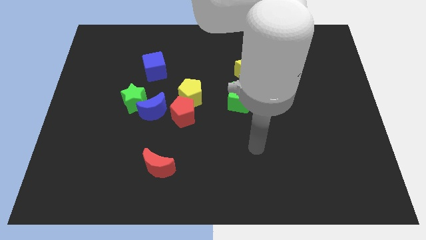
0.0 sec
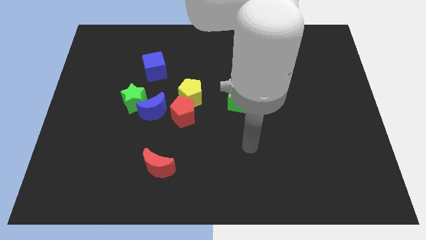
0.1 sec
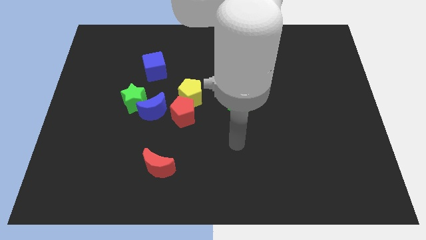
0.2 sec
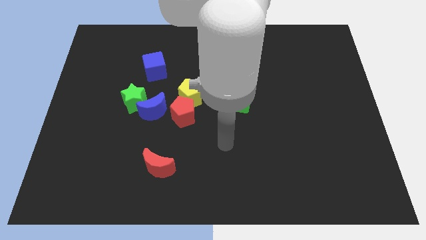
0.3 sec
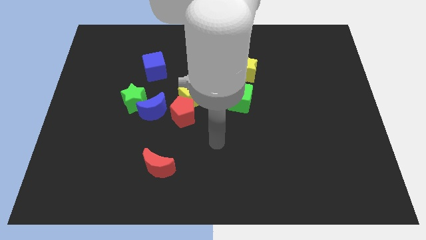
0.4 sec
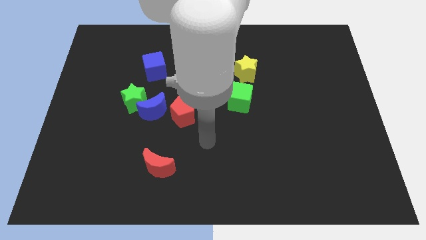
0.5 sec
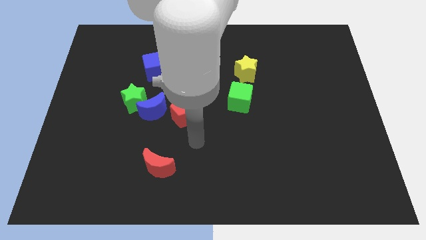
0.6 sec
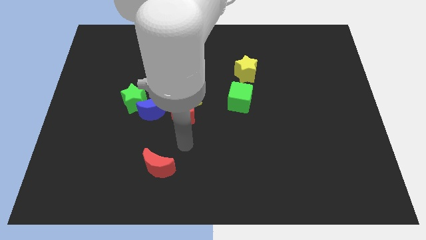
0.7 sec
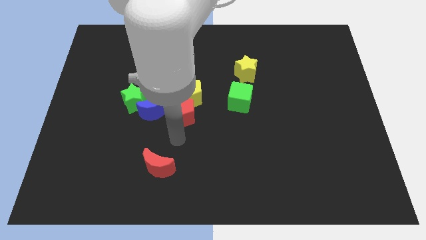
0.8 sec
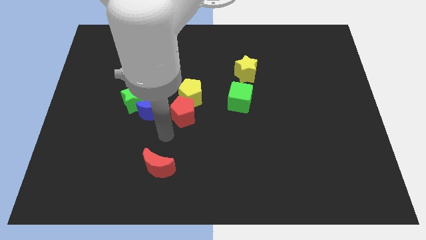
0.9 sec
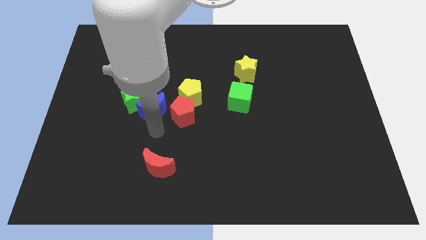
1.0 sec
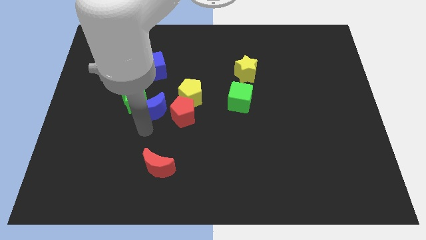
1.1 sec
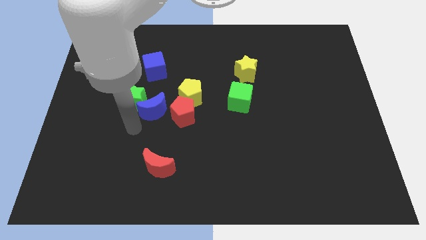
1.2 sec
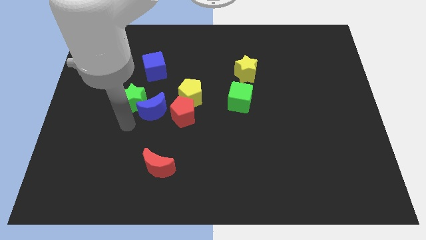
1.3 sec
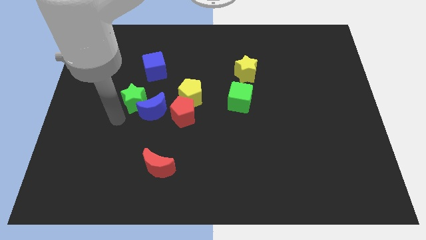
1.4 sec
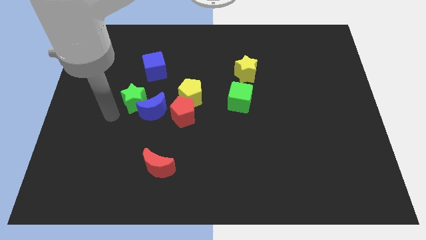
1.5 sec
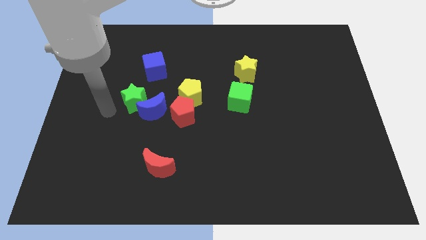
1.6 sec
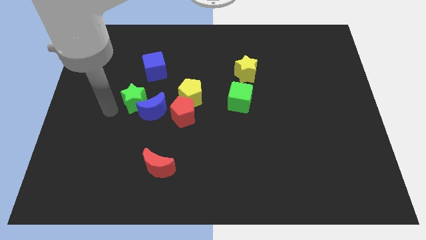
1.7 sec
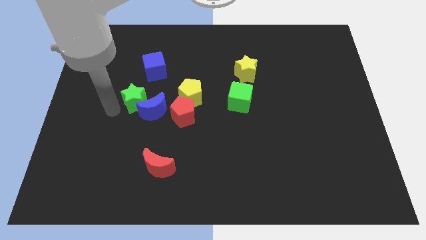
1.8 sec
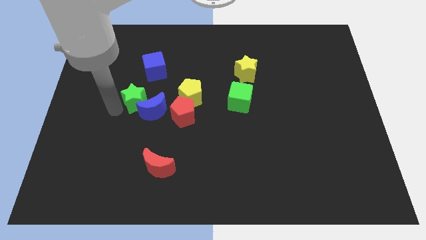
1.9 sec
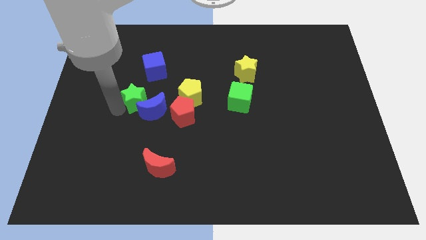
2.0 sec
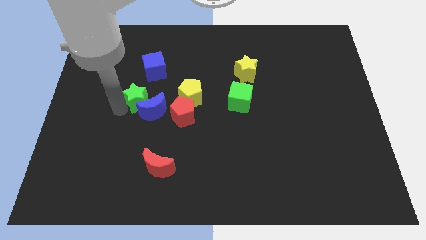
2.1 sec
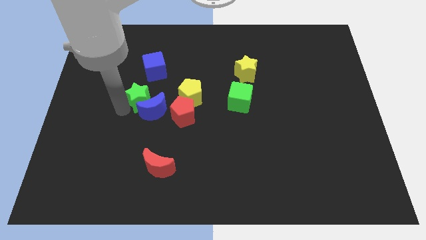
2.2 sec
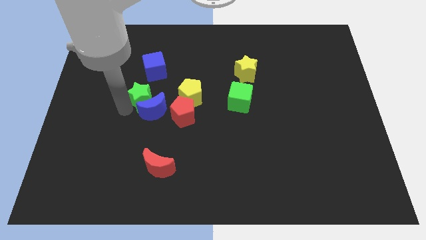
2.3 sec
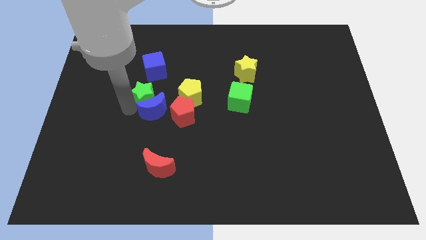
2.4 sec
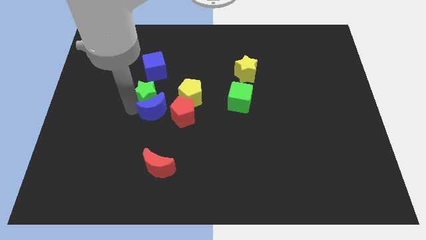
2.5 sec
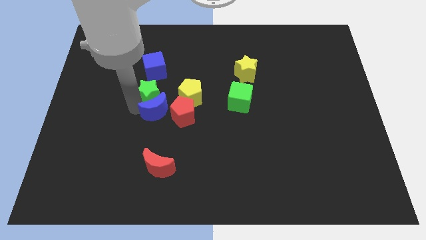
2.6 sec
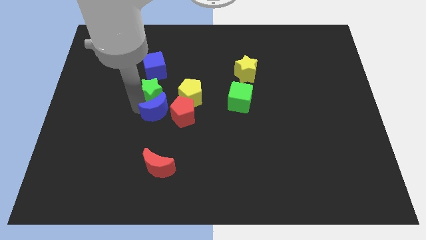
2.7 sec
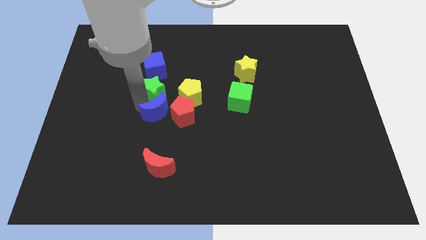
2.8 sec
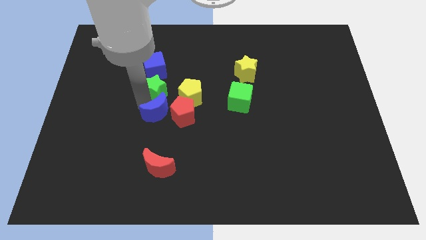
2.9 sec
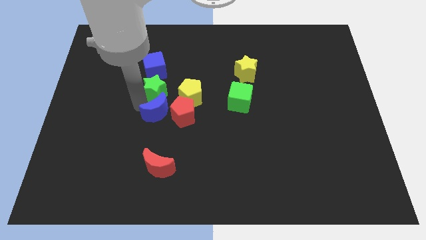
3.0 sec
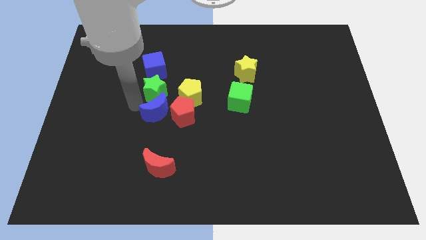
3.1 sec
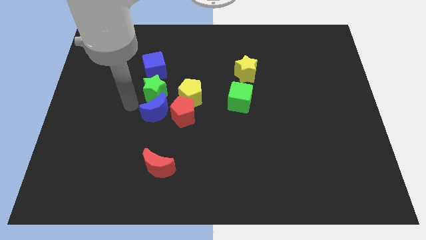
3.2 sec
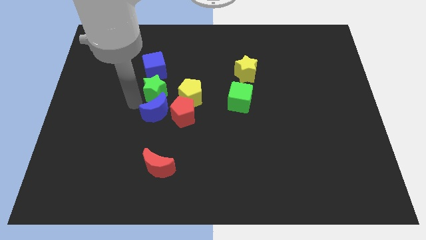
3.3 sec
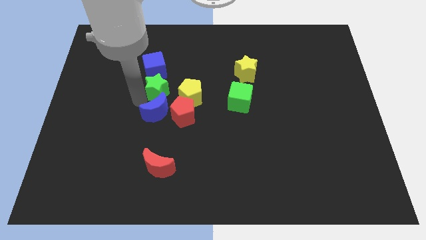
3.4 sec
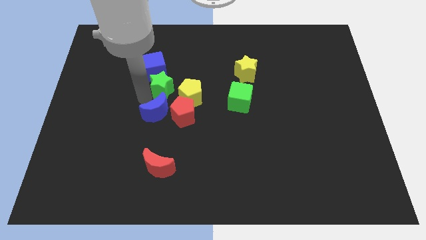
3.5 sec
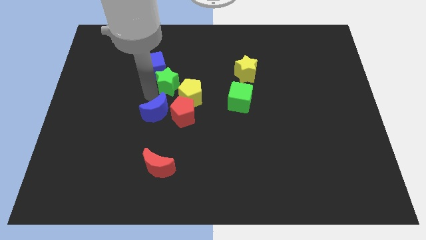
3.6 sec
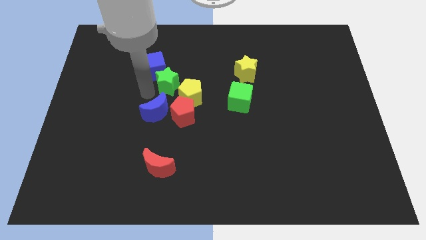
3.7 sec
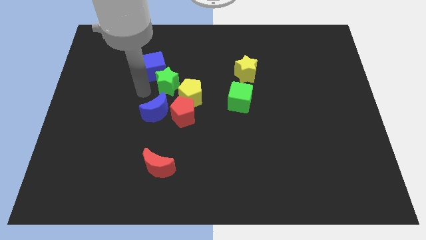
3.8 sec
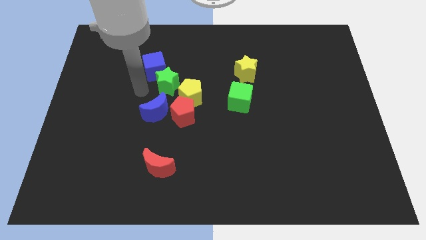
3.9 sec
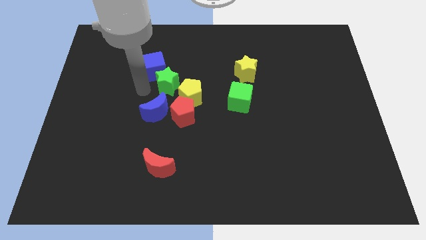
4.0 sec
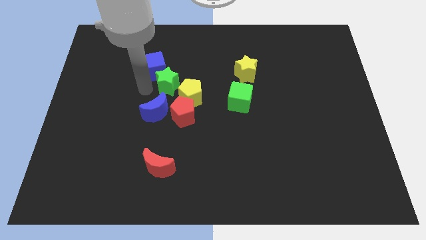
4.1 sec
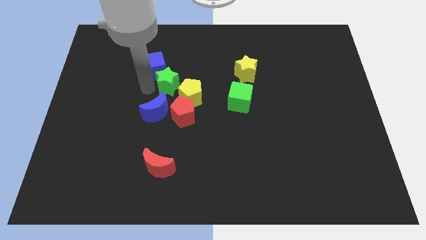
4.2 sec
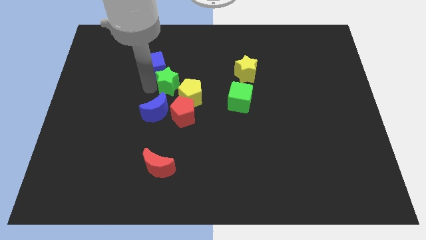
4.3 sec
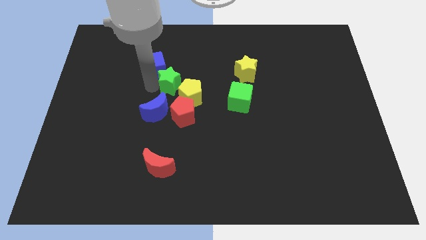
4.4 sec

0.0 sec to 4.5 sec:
slightly push the green star right

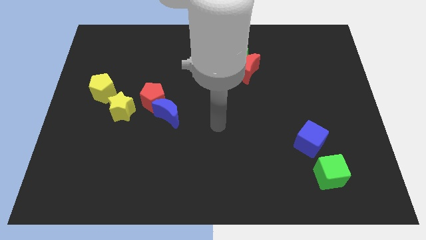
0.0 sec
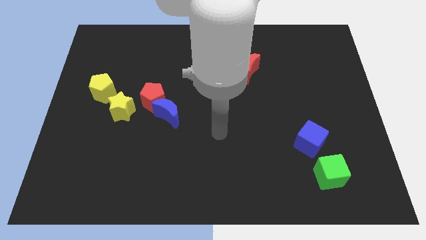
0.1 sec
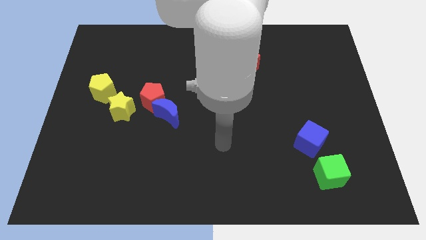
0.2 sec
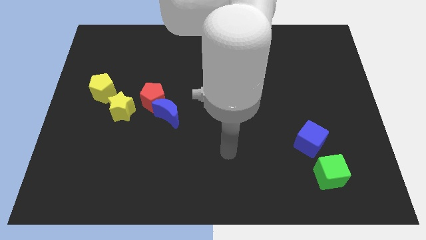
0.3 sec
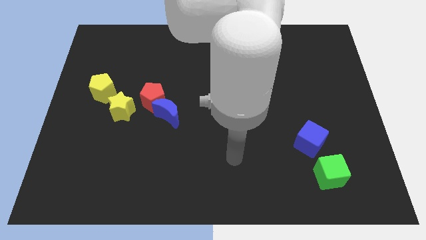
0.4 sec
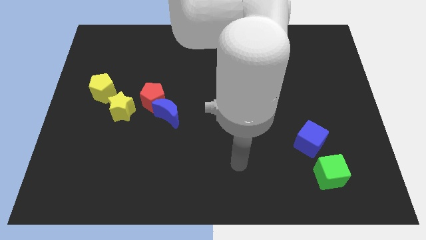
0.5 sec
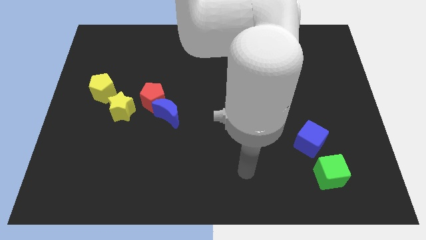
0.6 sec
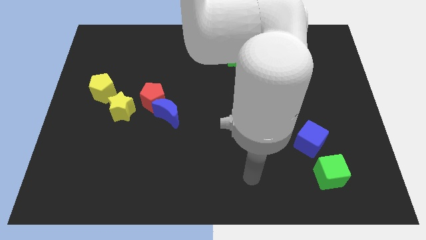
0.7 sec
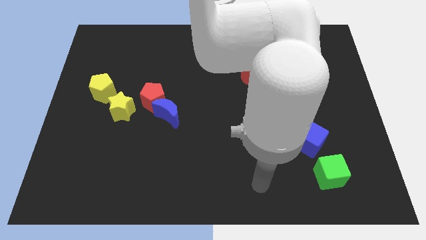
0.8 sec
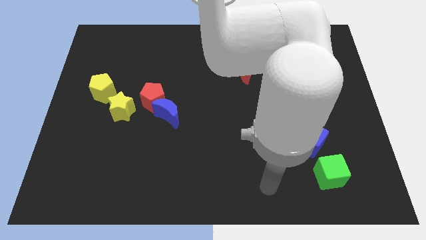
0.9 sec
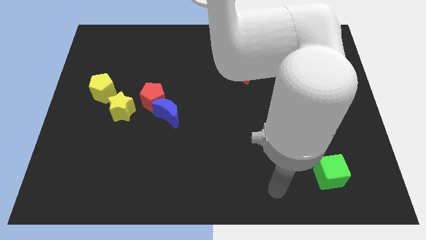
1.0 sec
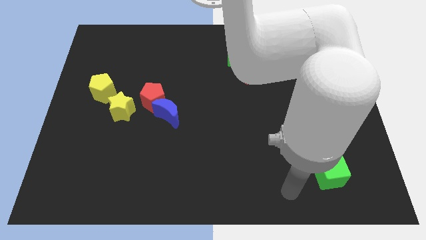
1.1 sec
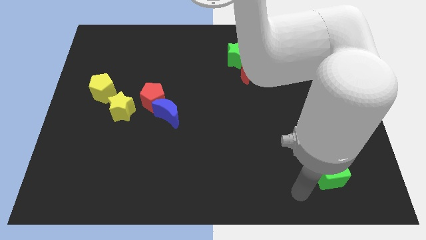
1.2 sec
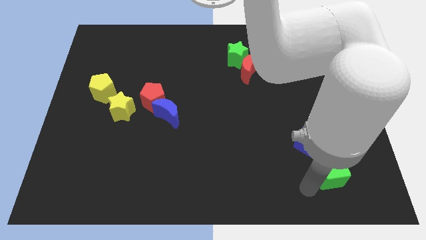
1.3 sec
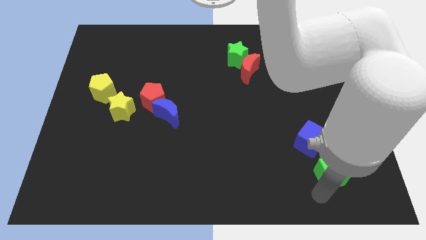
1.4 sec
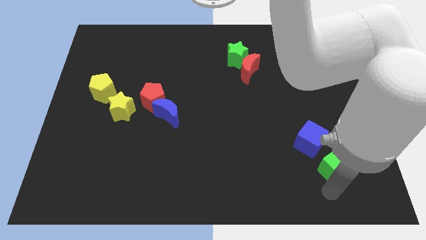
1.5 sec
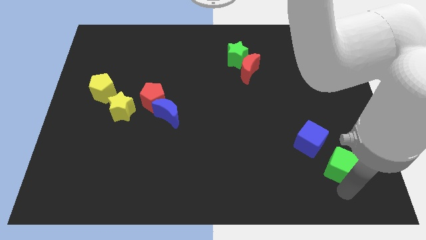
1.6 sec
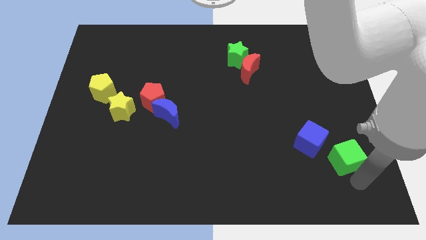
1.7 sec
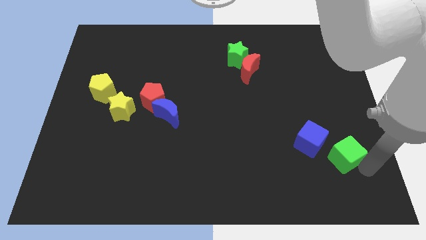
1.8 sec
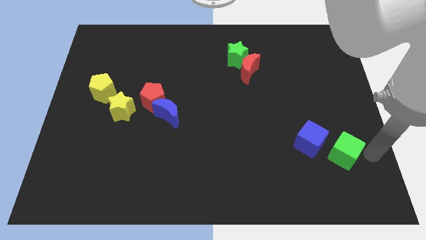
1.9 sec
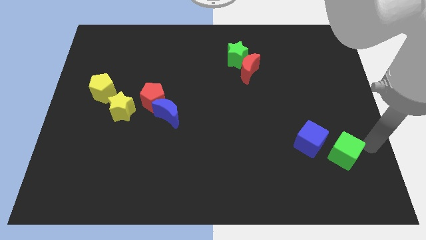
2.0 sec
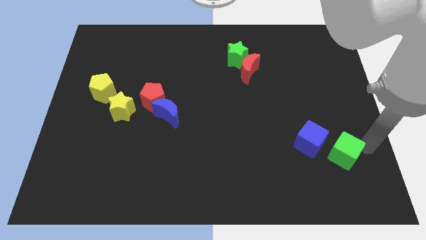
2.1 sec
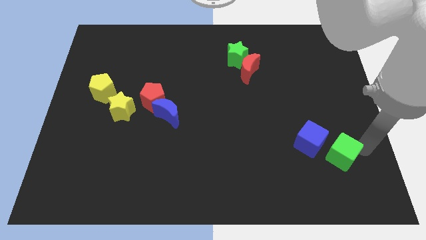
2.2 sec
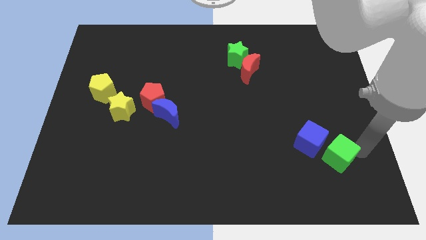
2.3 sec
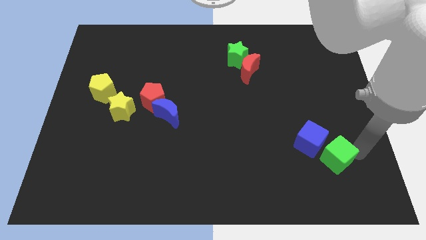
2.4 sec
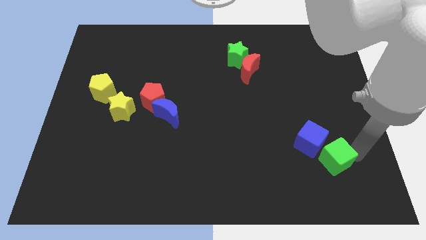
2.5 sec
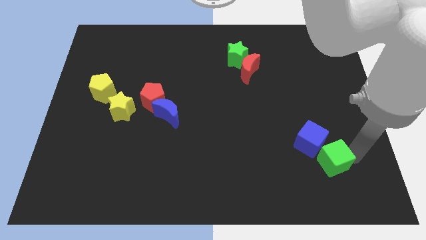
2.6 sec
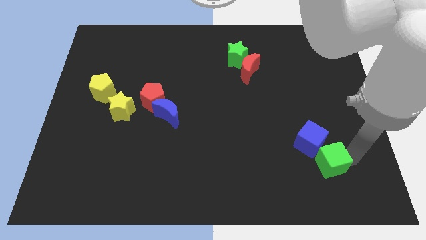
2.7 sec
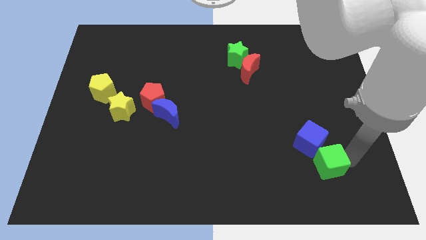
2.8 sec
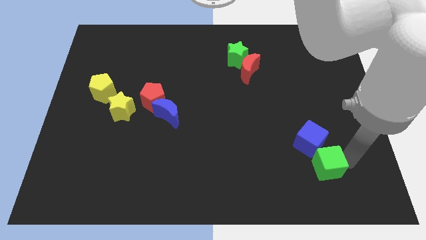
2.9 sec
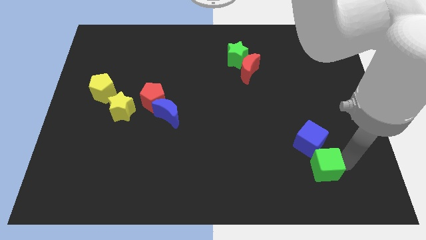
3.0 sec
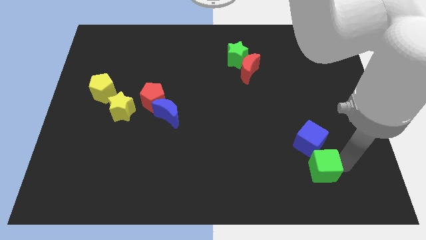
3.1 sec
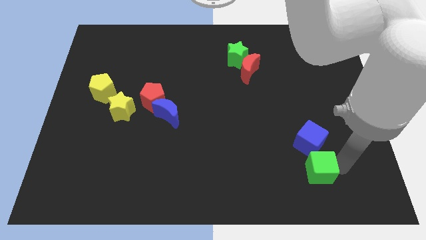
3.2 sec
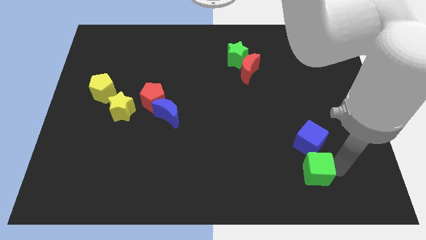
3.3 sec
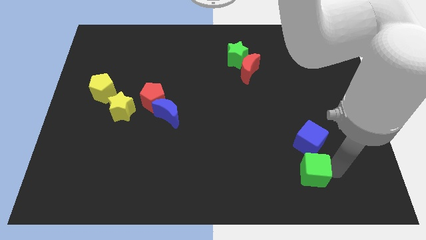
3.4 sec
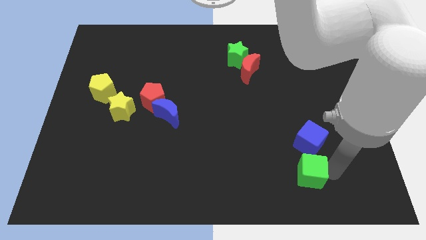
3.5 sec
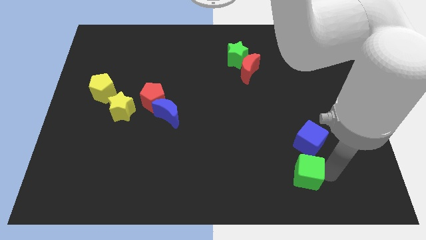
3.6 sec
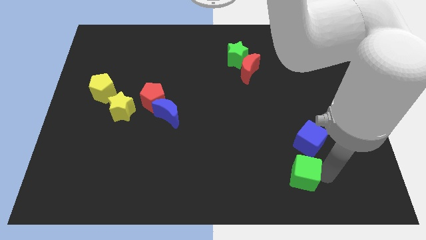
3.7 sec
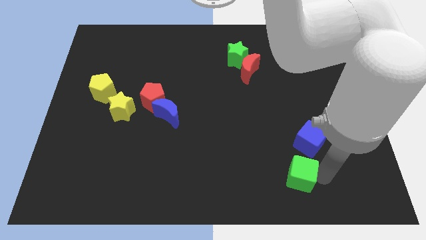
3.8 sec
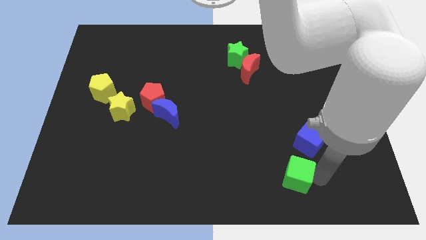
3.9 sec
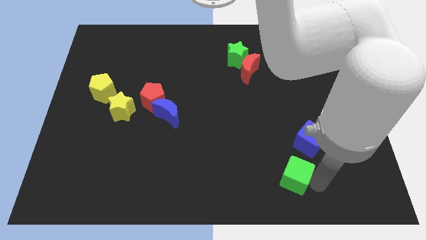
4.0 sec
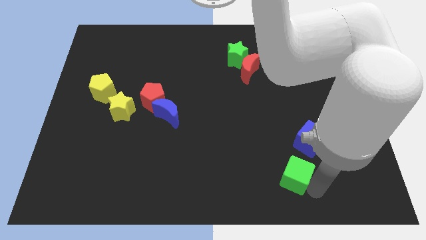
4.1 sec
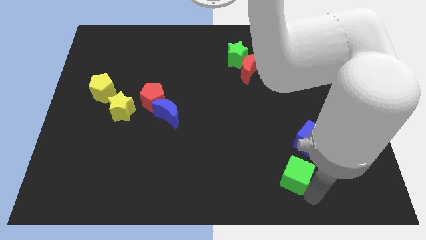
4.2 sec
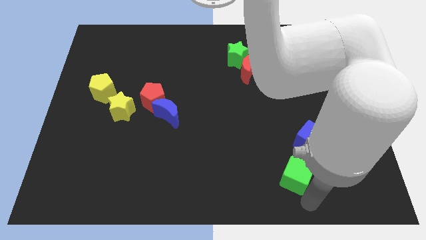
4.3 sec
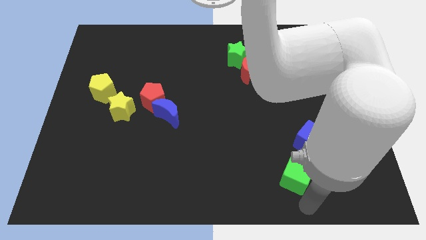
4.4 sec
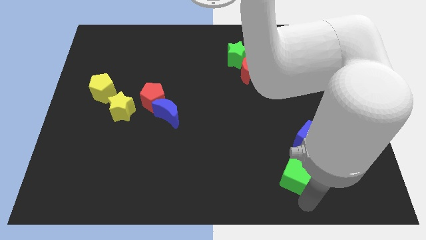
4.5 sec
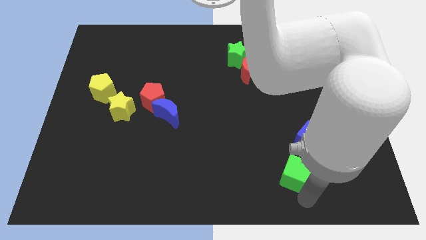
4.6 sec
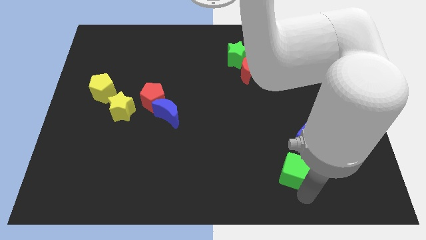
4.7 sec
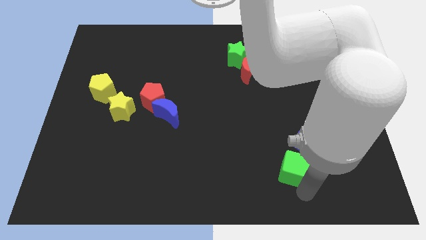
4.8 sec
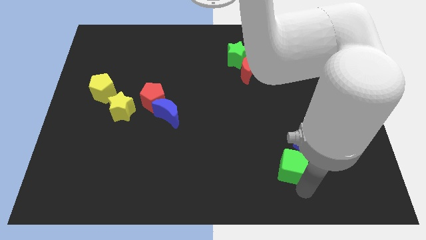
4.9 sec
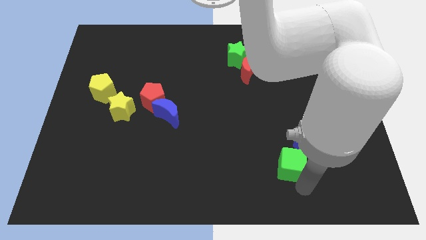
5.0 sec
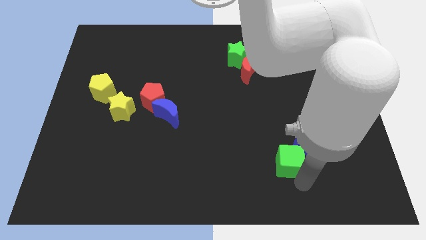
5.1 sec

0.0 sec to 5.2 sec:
move the green cube upwards and left diagonally slightly
